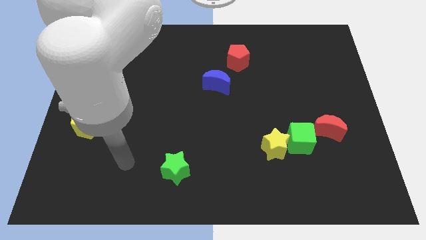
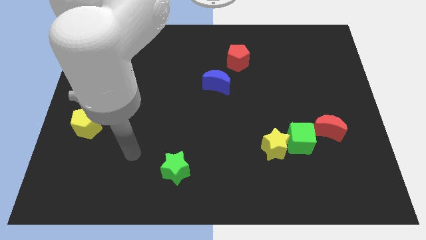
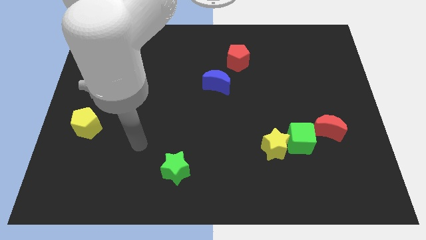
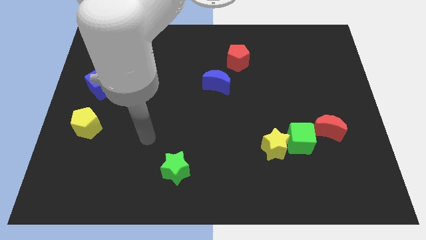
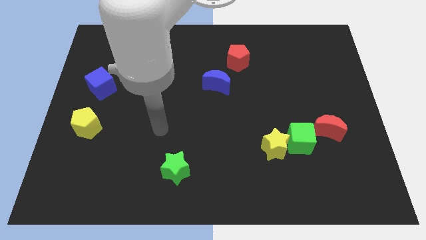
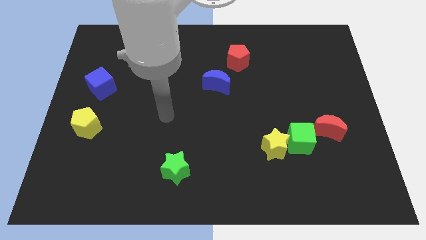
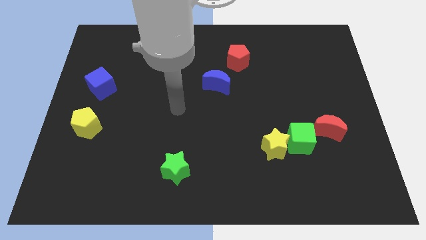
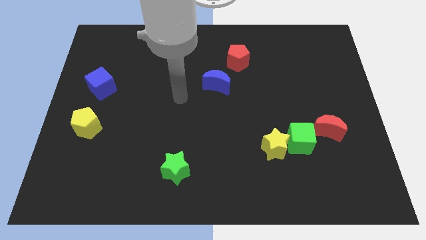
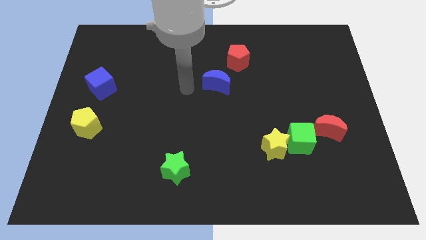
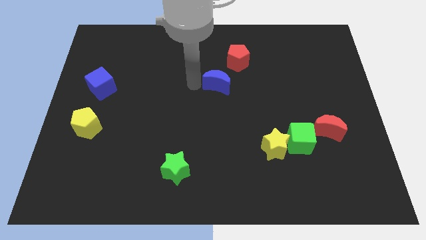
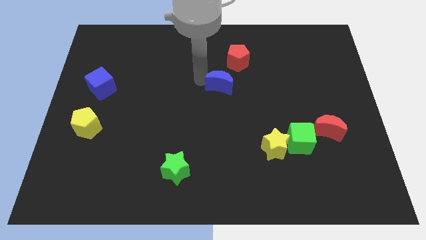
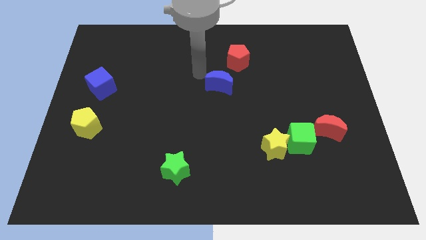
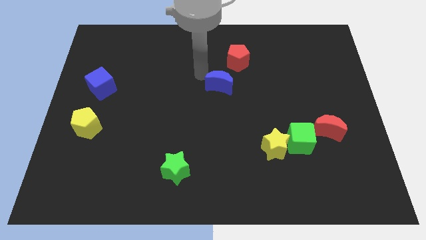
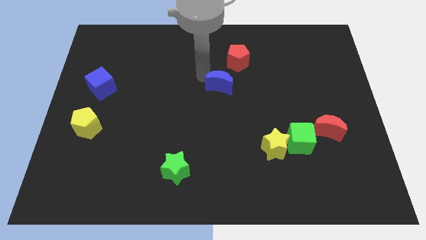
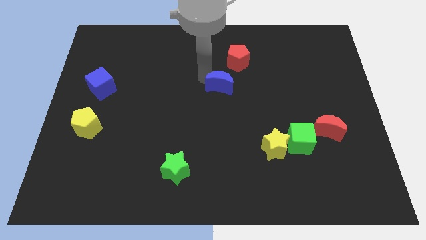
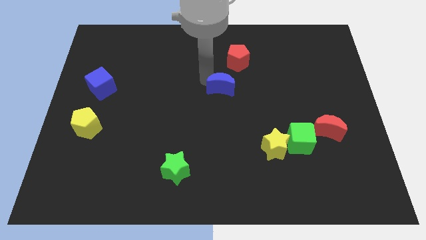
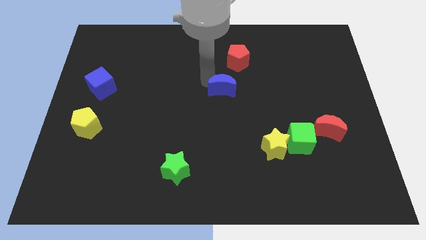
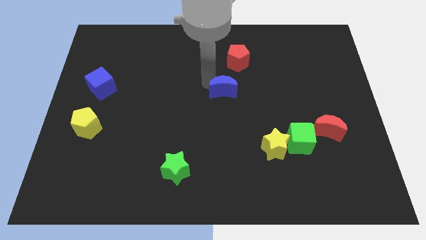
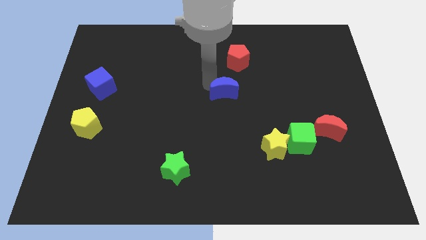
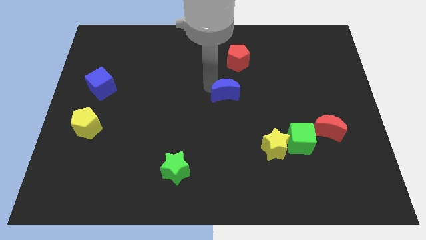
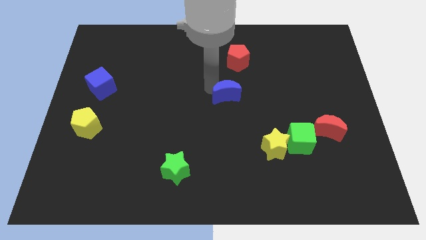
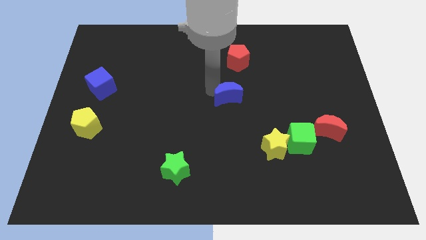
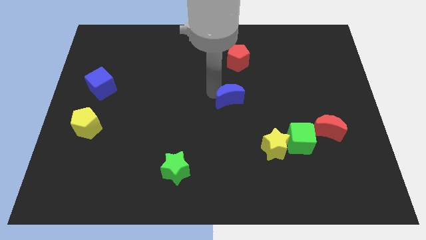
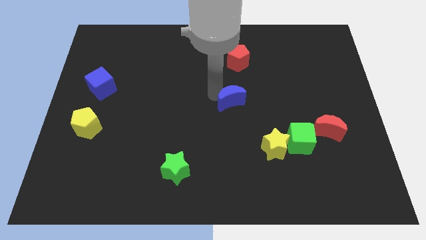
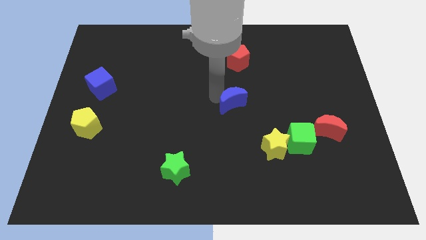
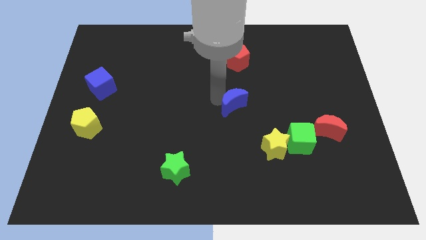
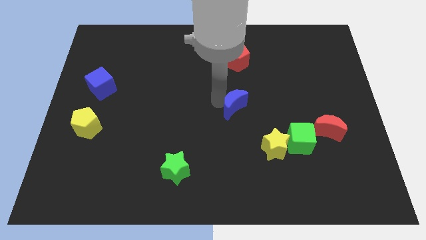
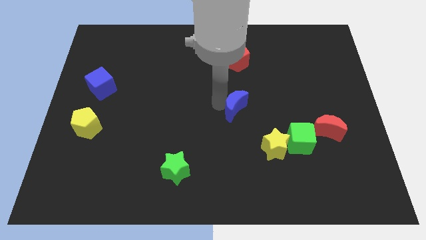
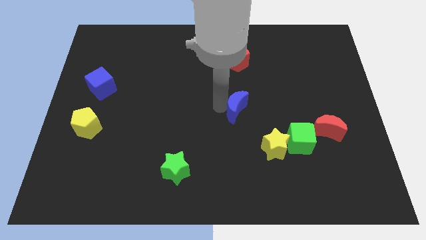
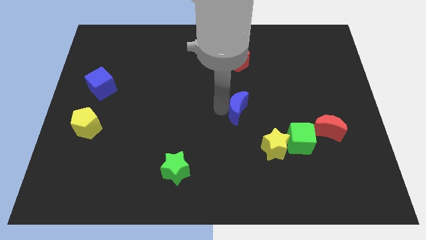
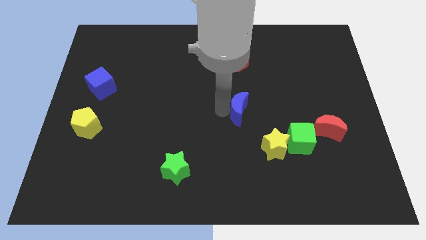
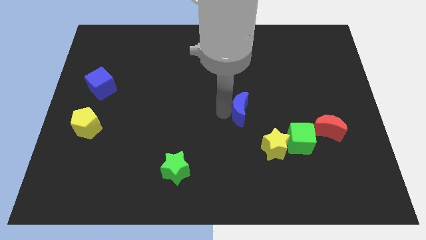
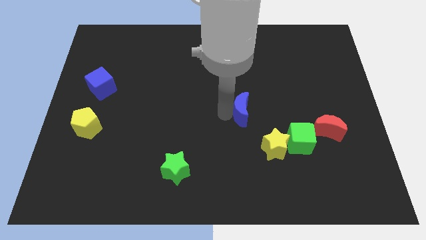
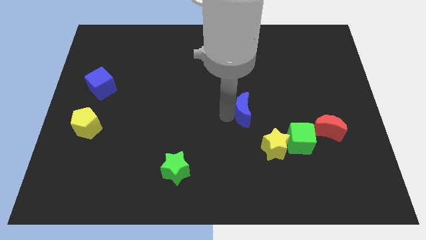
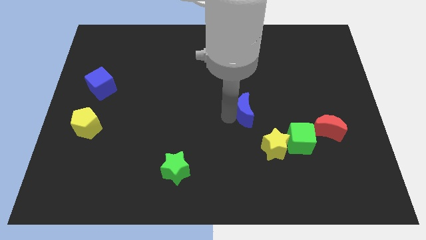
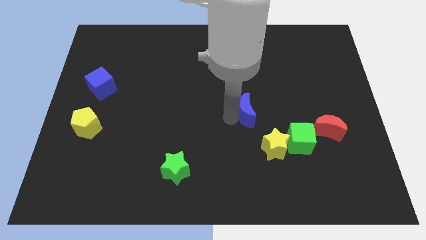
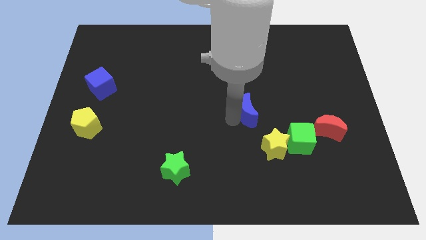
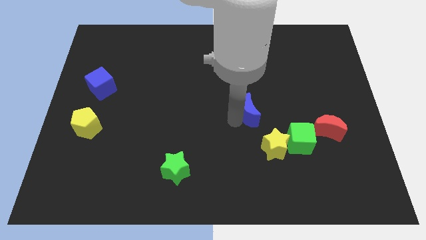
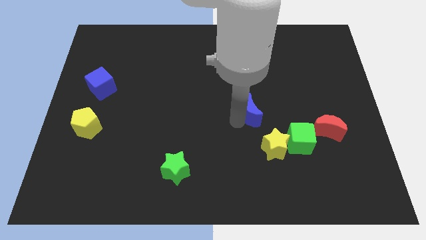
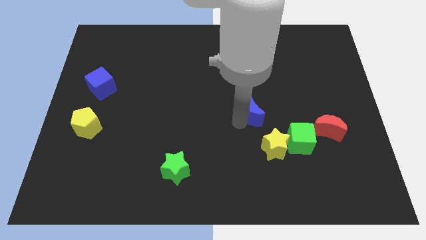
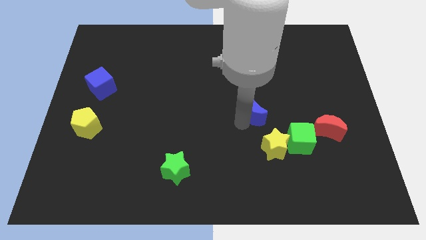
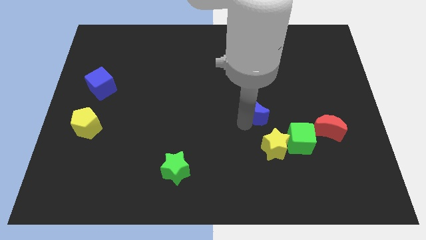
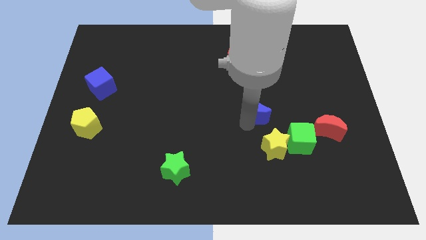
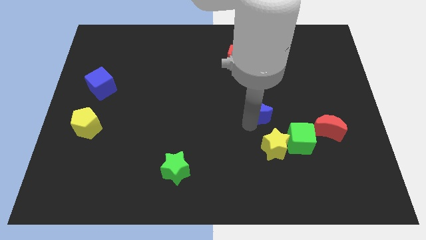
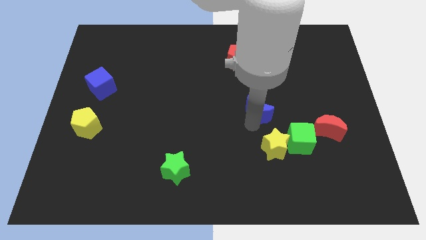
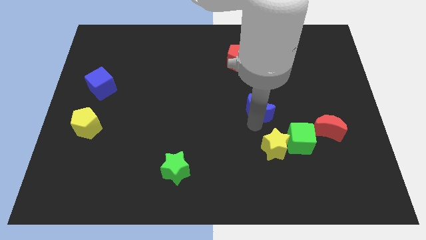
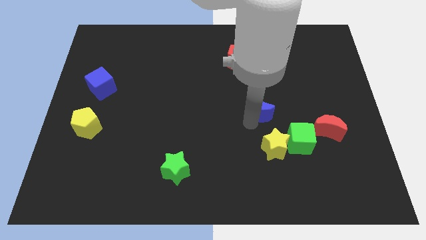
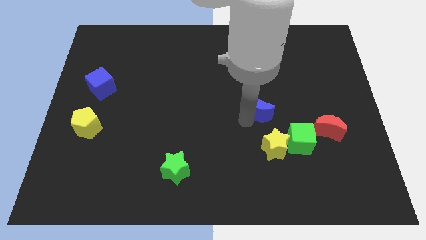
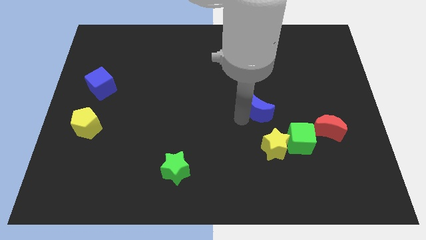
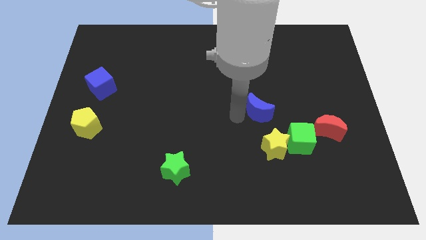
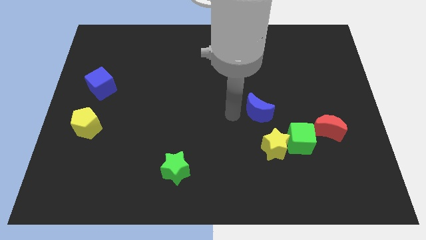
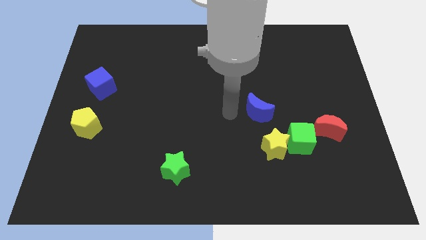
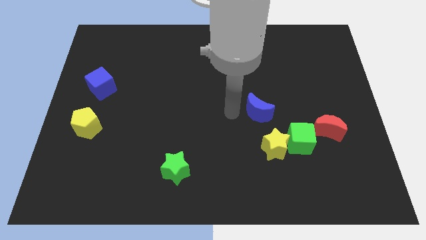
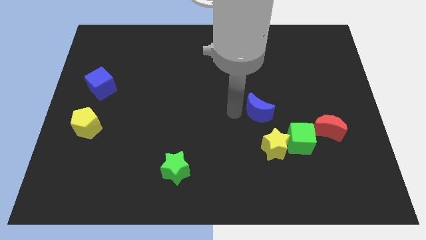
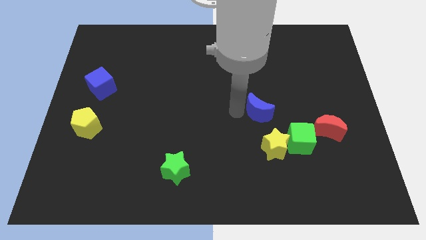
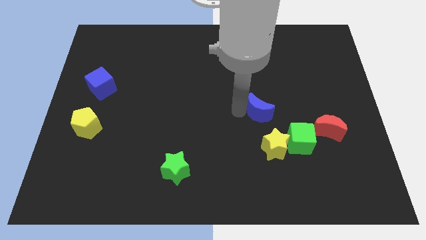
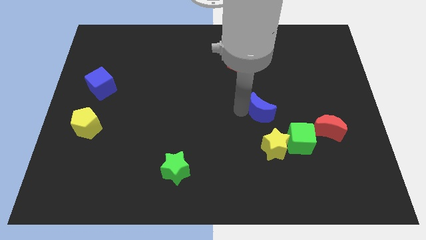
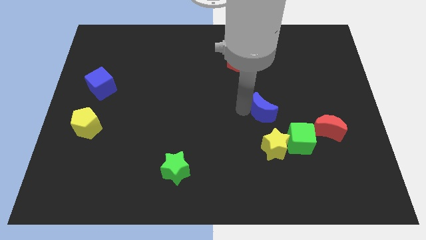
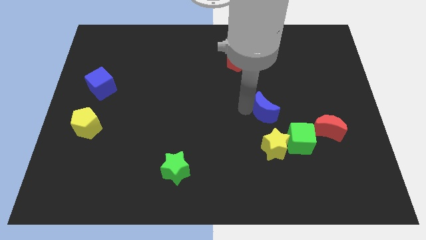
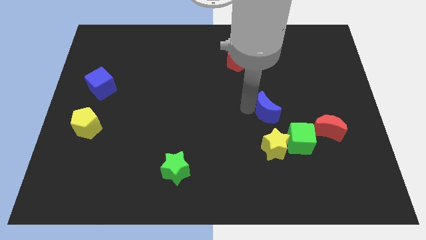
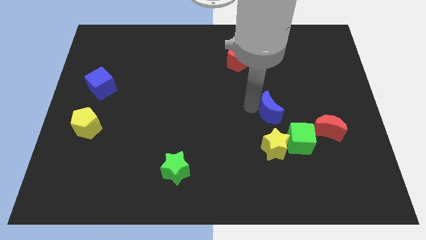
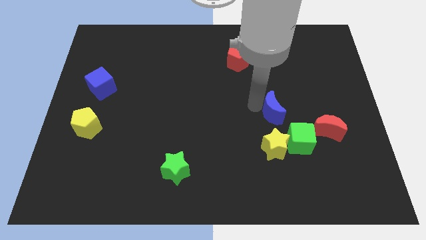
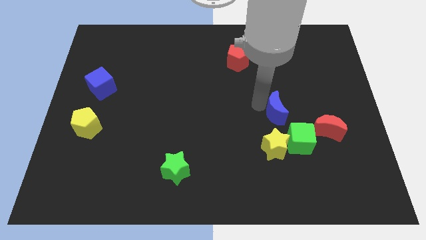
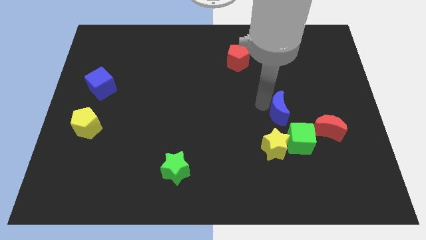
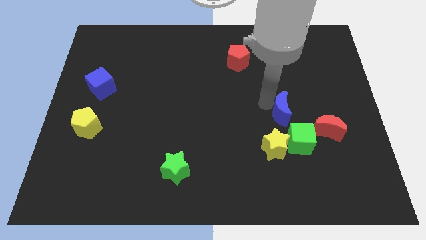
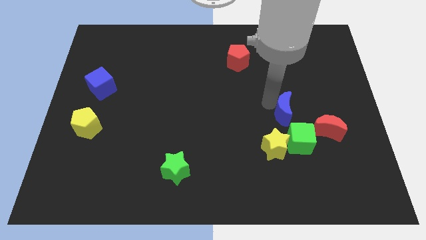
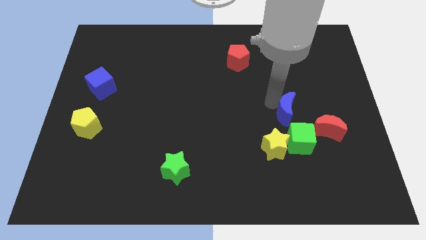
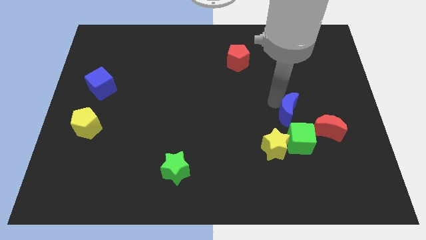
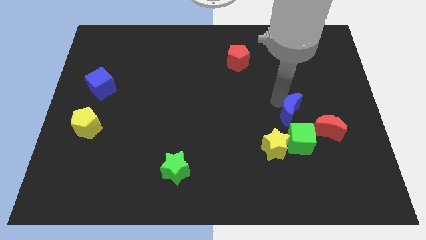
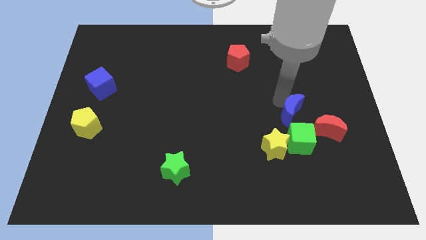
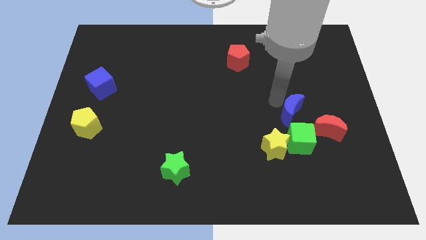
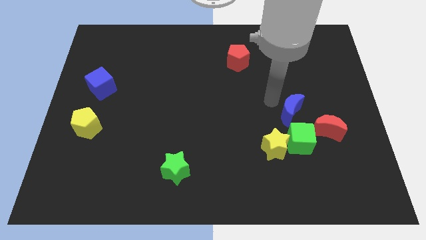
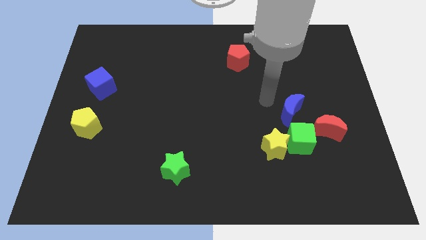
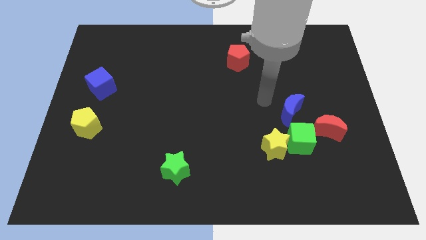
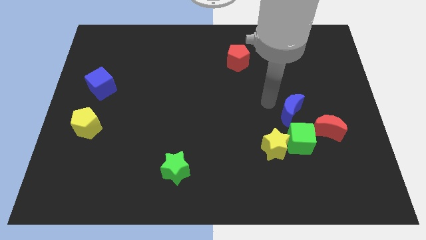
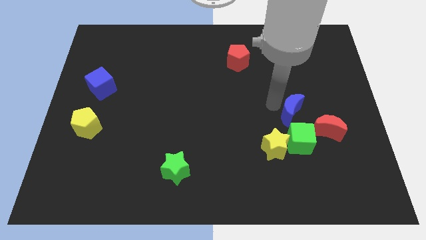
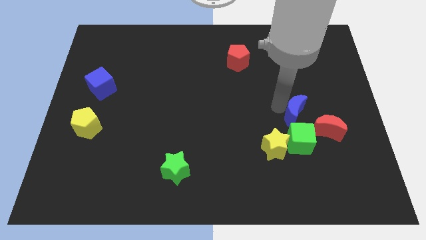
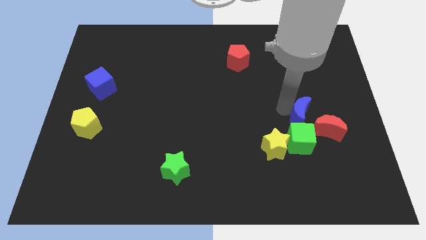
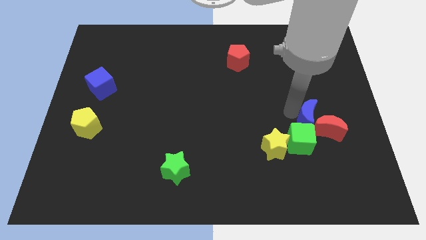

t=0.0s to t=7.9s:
put the blue moon towards the red moon

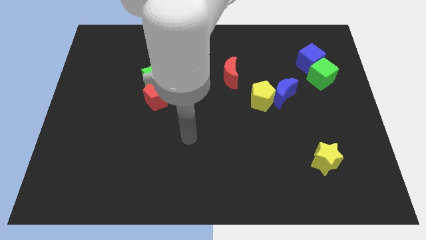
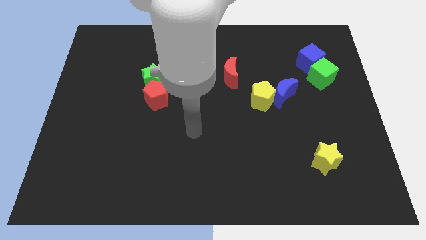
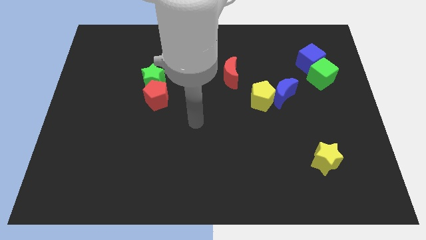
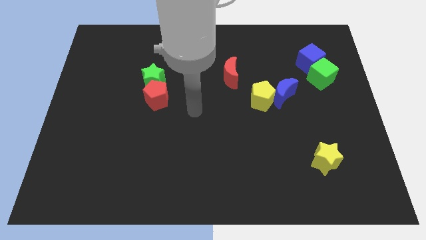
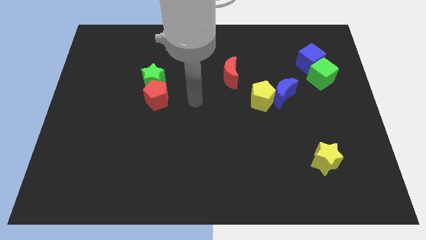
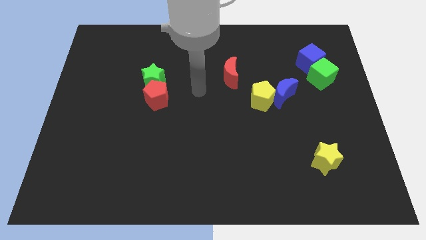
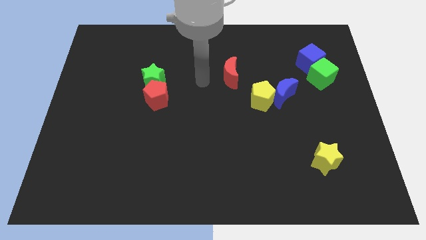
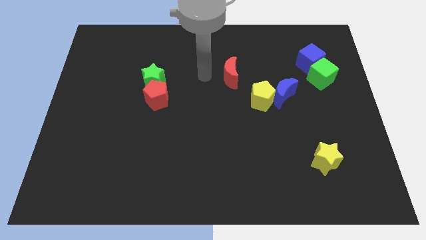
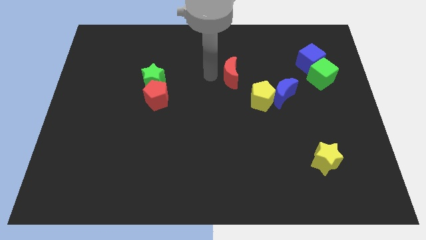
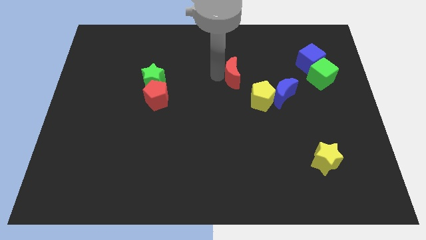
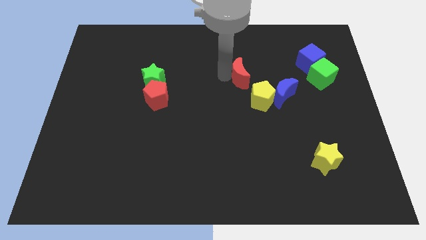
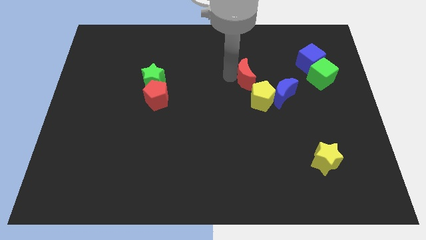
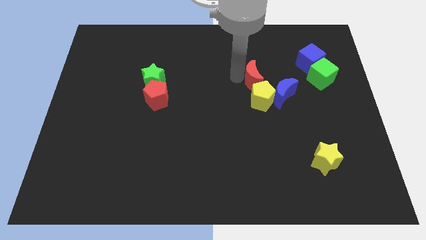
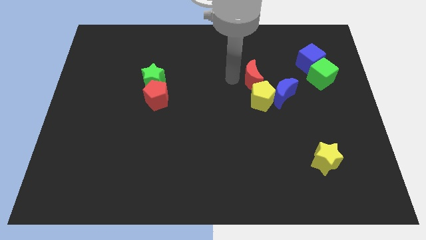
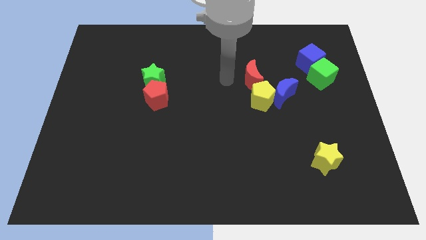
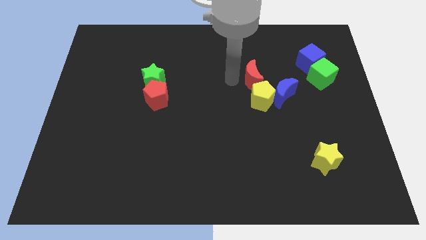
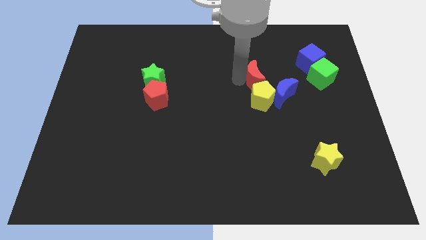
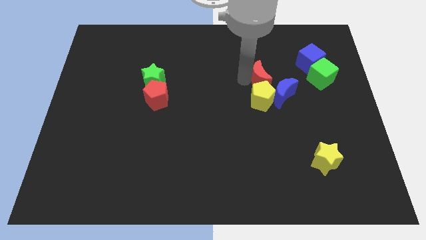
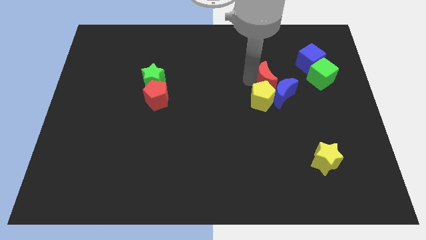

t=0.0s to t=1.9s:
push the red moon next to the blue moon
